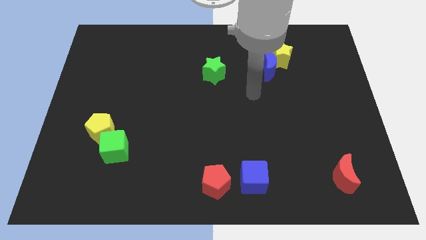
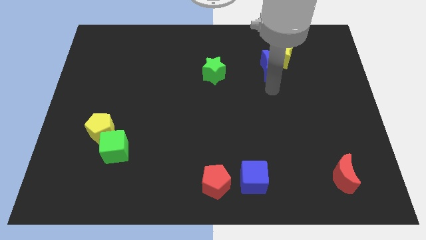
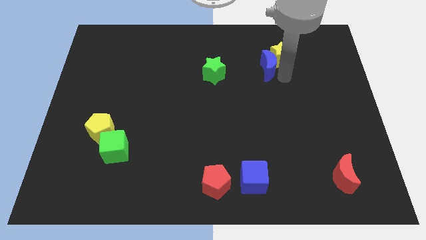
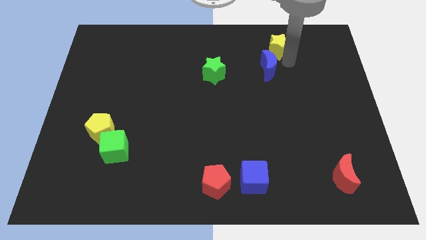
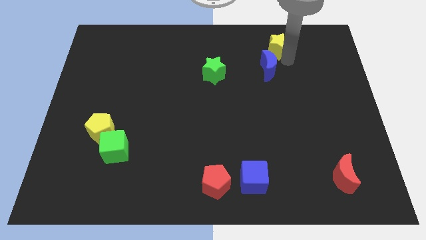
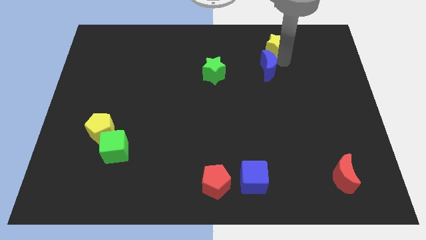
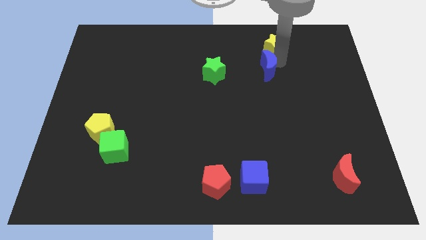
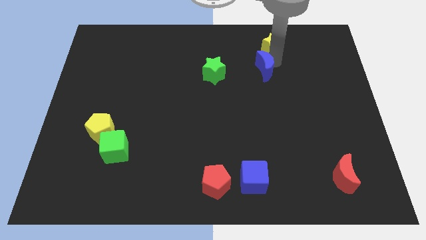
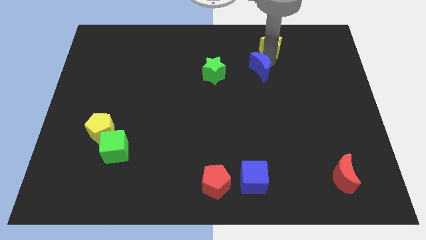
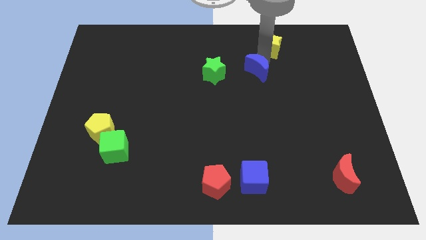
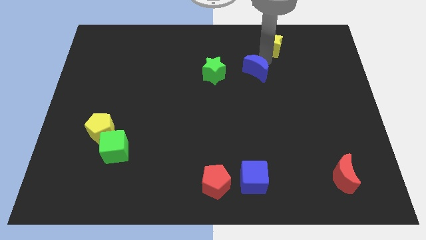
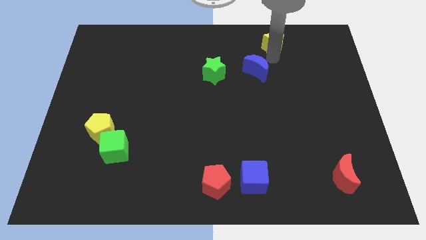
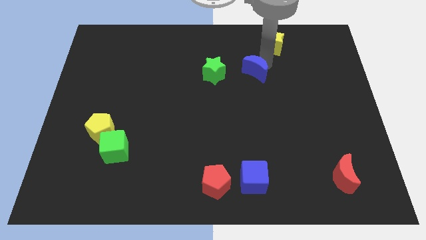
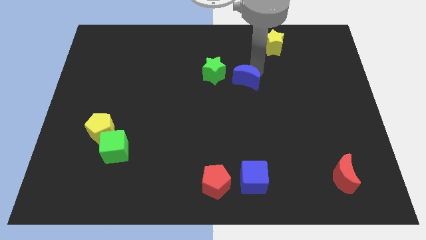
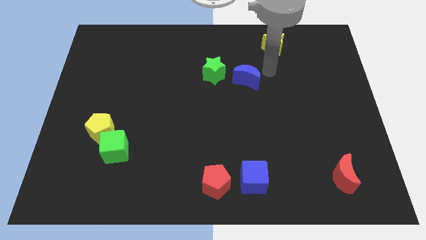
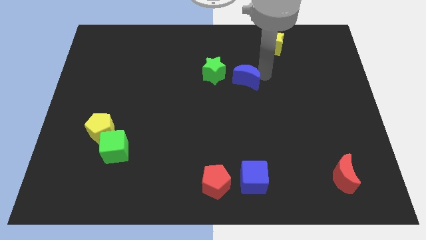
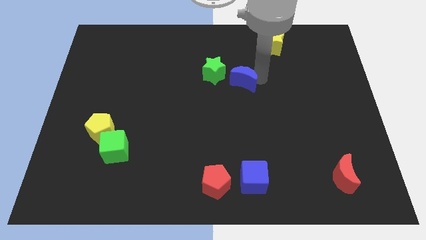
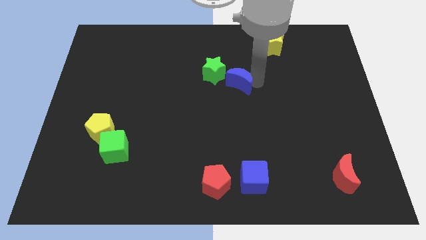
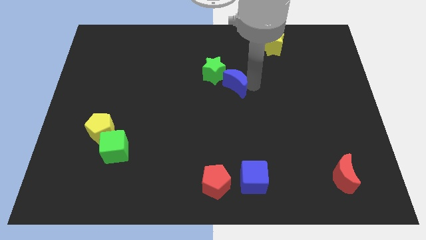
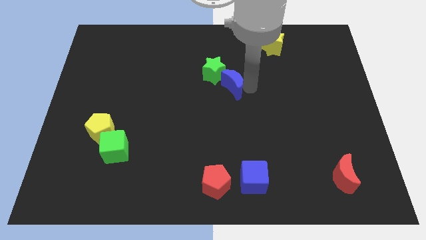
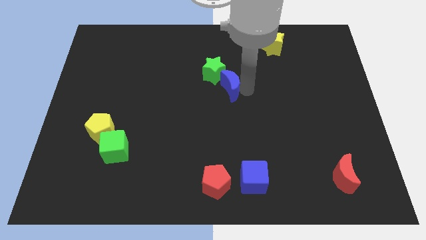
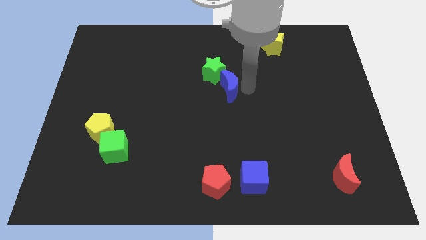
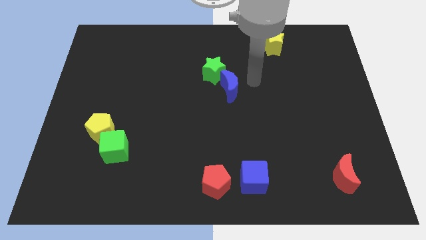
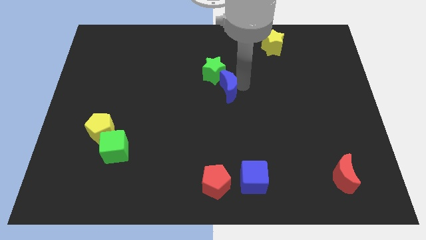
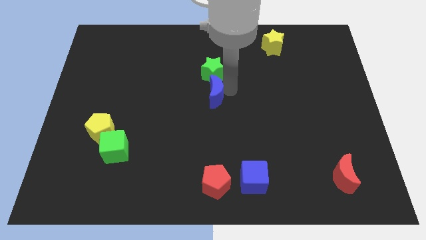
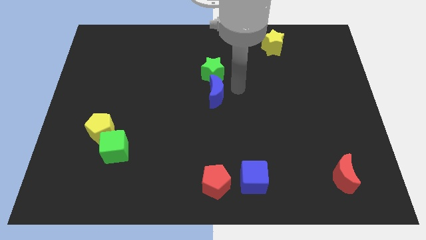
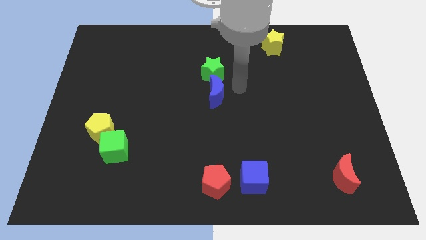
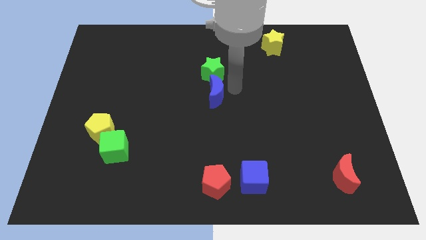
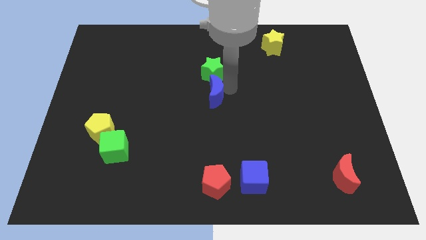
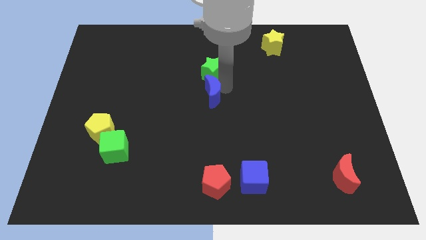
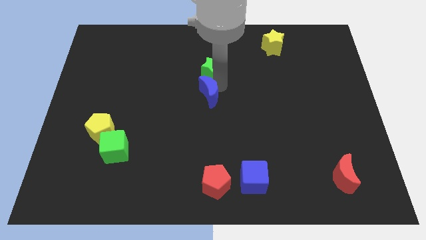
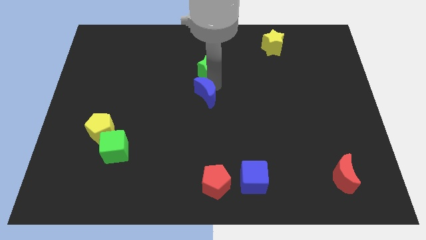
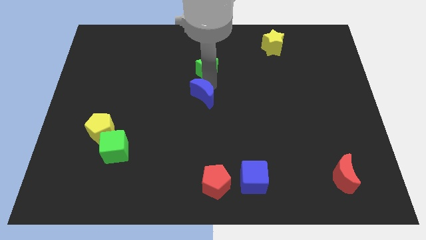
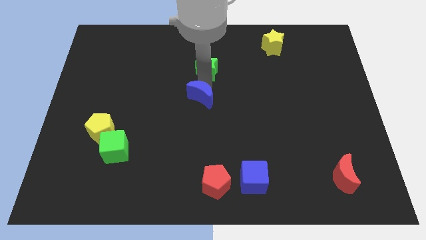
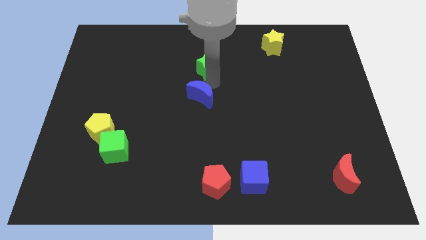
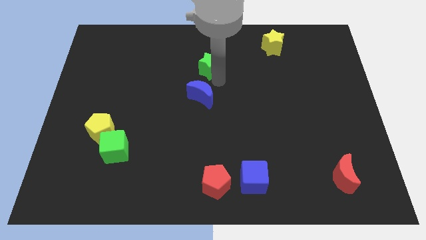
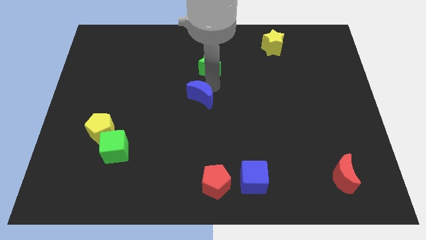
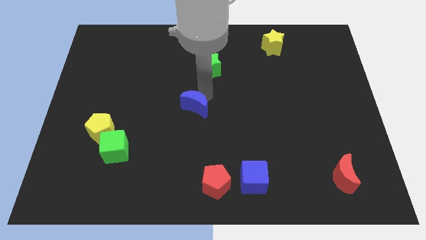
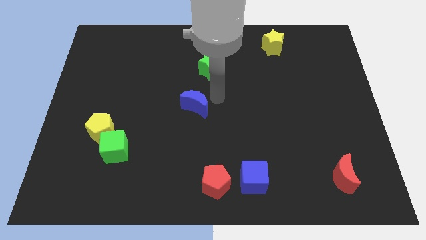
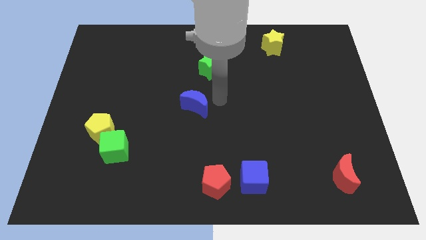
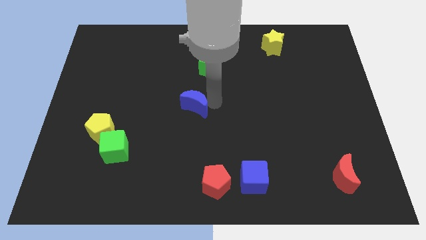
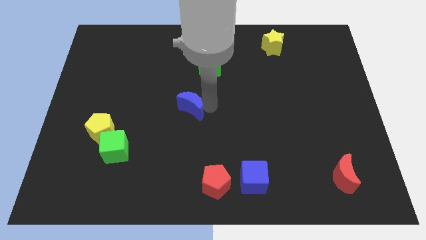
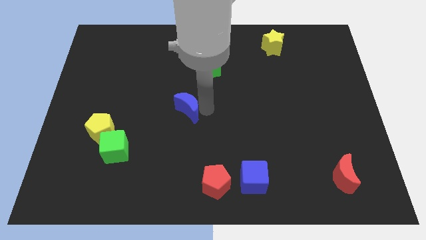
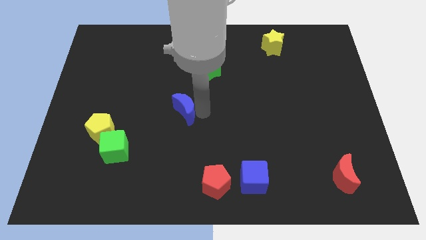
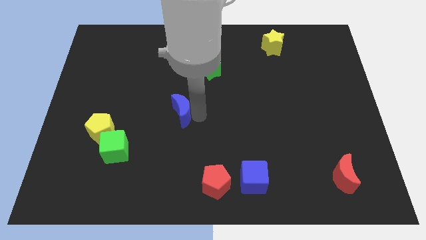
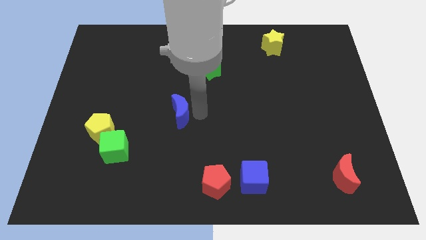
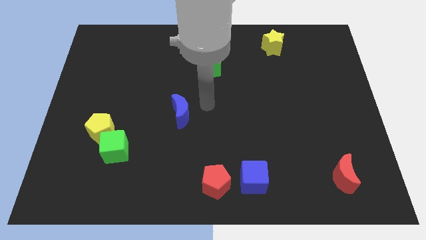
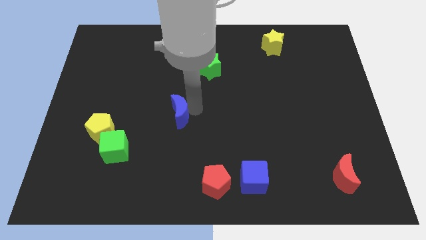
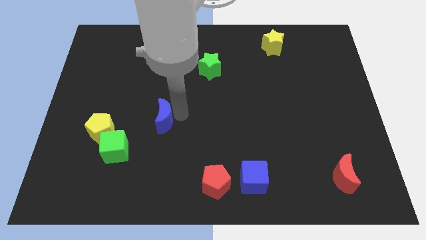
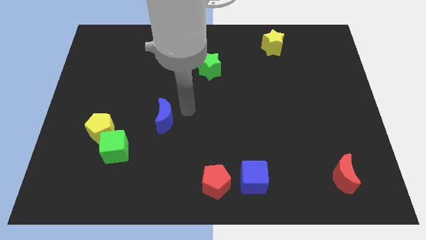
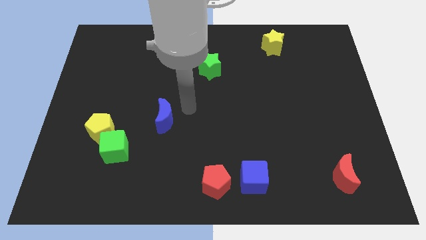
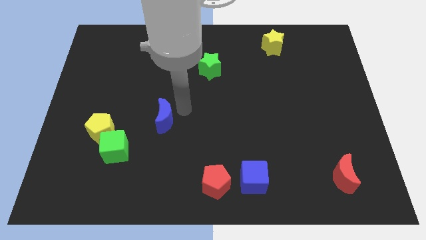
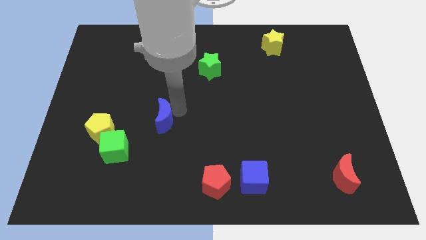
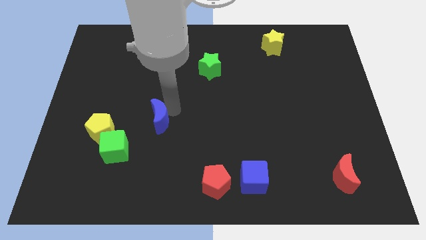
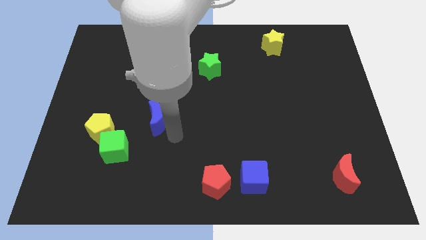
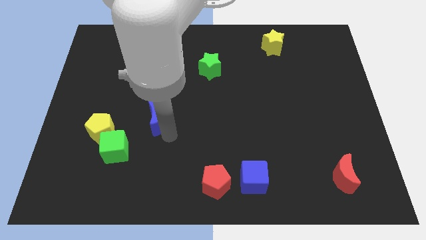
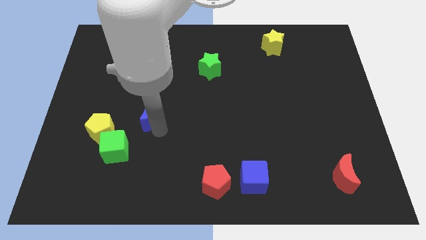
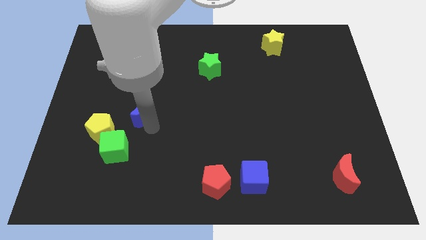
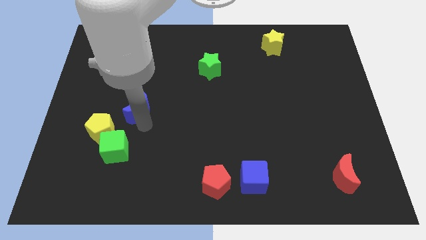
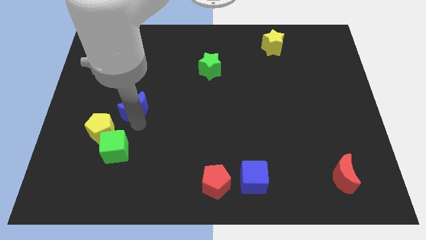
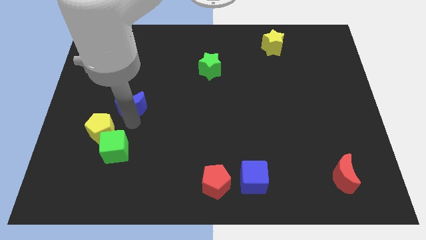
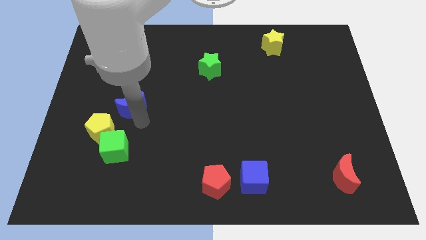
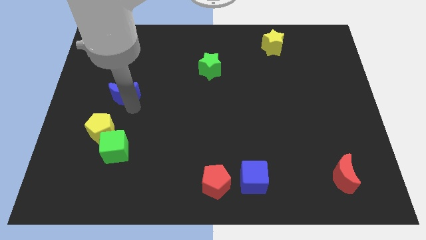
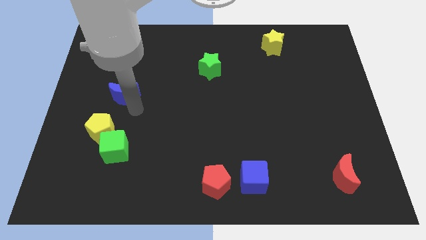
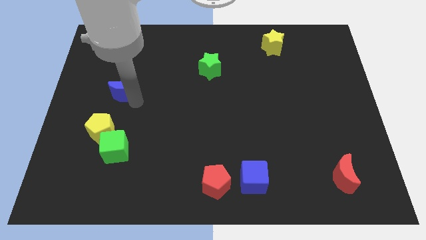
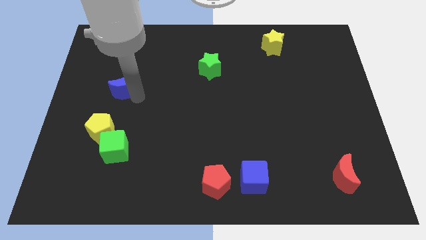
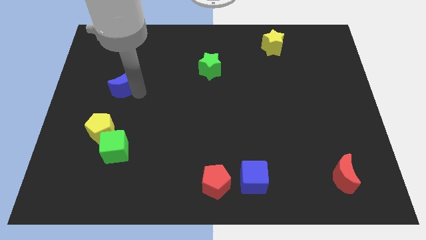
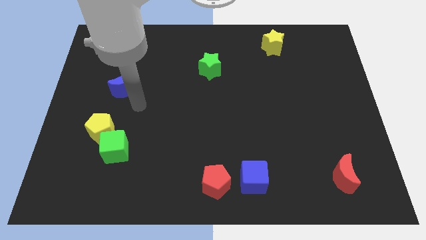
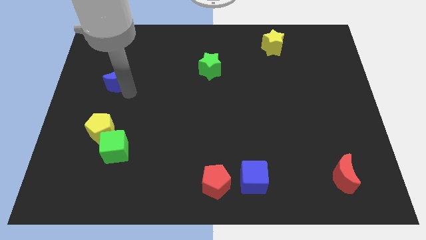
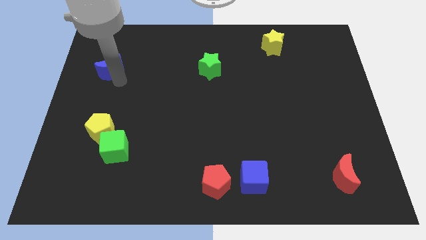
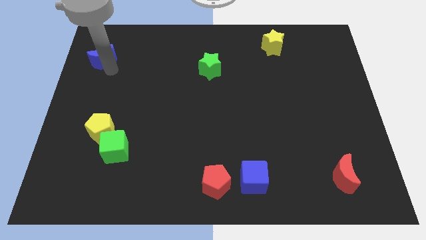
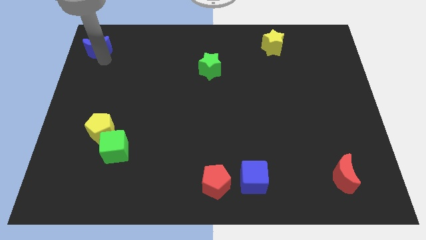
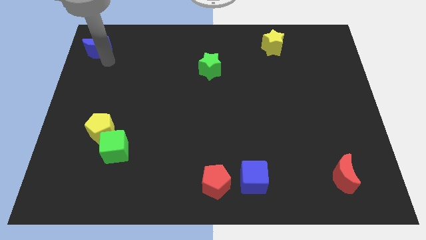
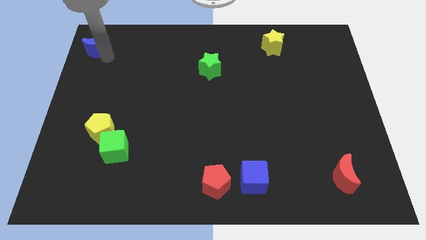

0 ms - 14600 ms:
move the blue moon to the upper left corner
